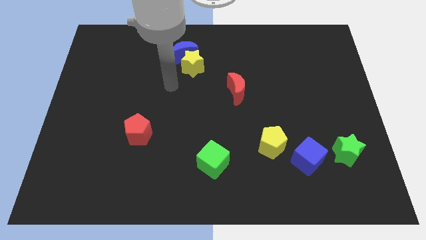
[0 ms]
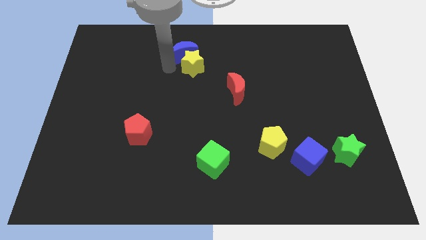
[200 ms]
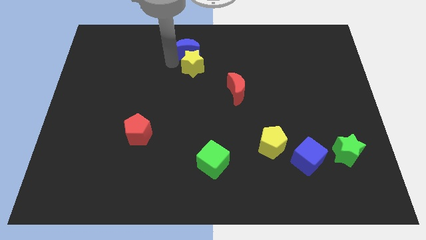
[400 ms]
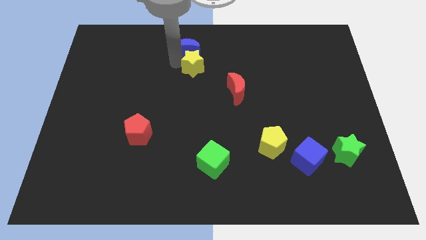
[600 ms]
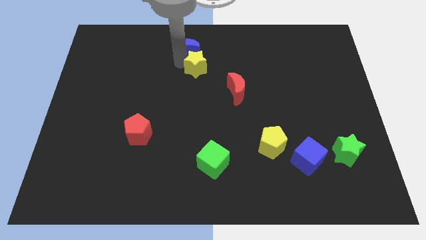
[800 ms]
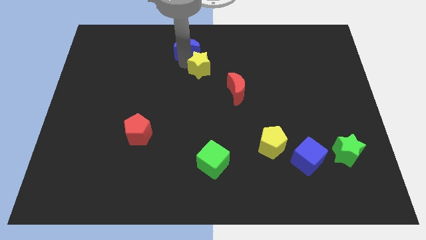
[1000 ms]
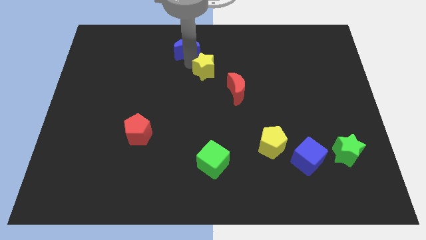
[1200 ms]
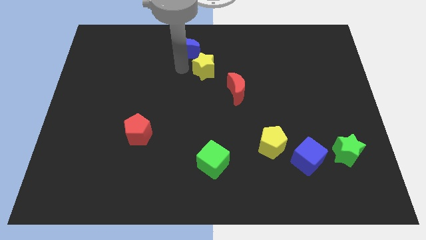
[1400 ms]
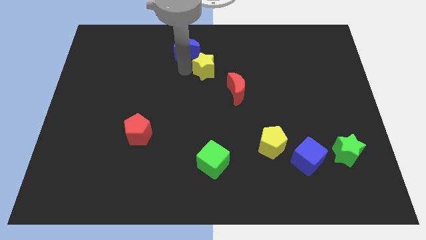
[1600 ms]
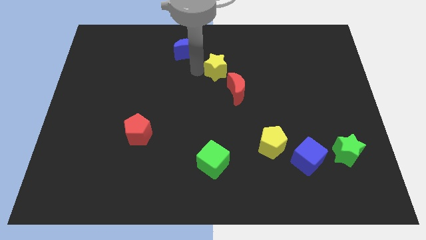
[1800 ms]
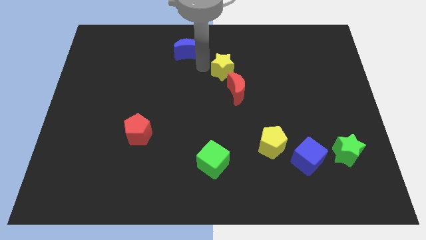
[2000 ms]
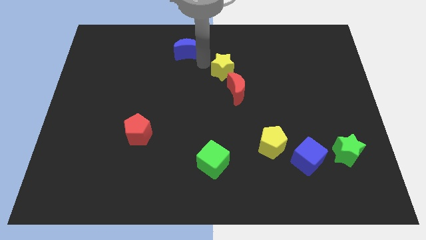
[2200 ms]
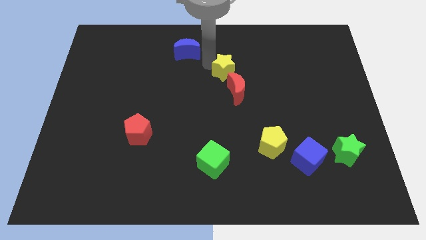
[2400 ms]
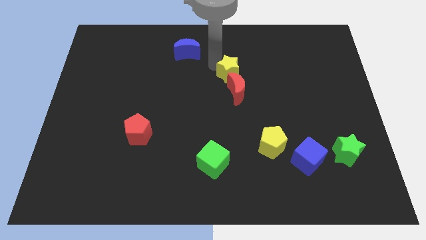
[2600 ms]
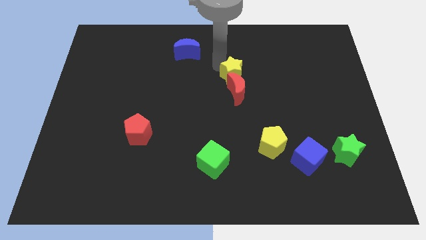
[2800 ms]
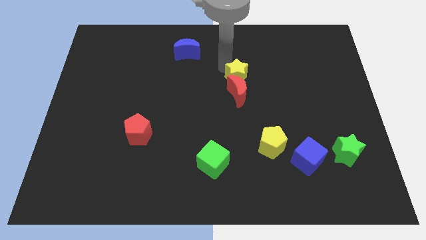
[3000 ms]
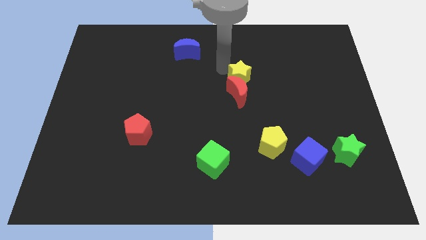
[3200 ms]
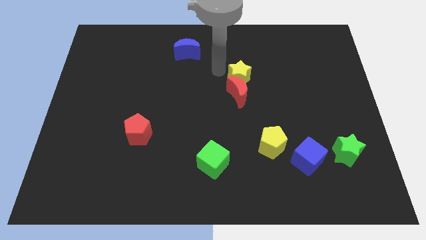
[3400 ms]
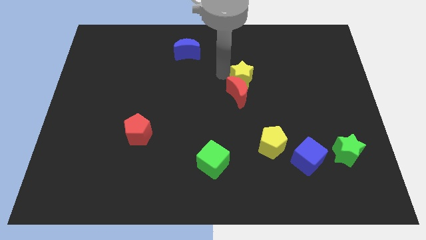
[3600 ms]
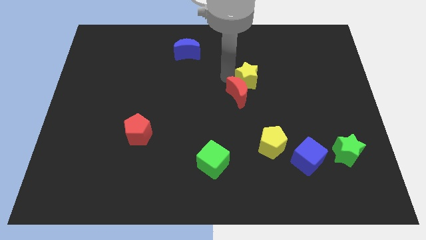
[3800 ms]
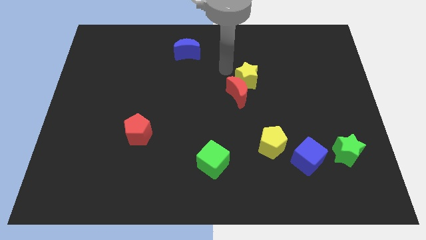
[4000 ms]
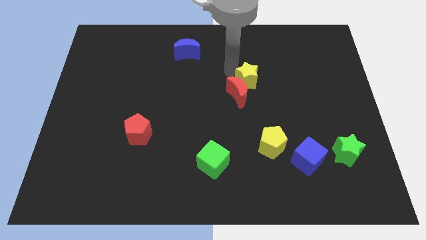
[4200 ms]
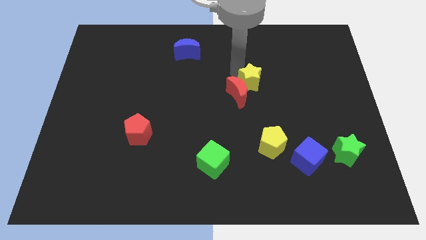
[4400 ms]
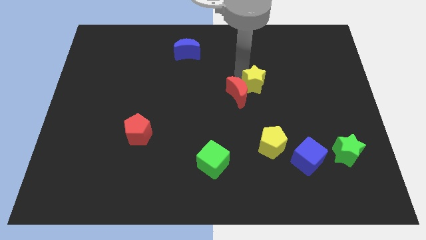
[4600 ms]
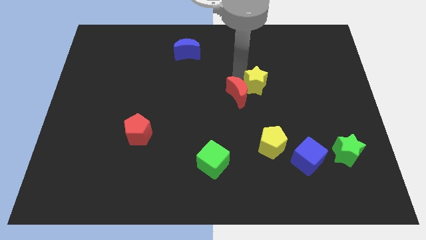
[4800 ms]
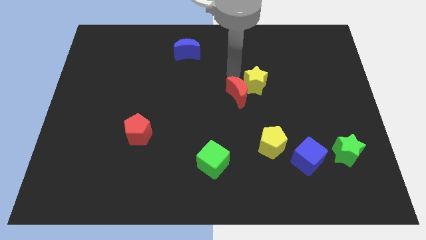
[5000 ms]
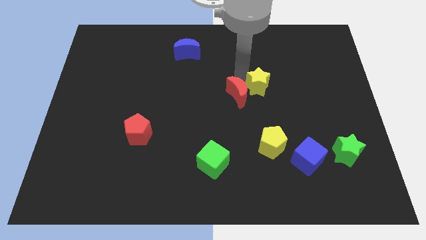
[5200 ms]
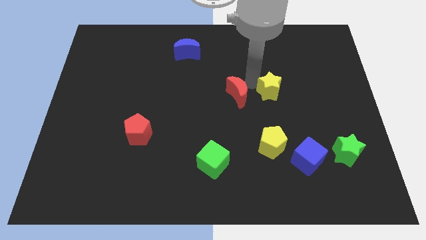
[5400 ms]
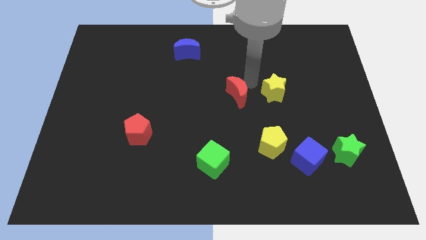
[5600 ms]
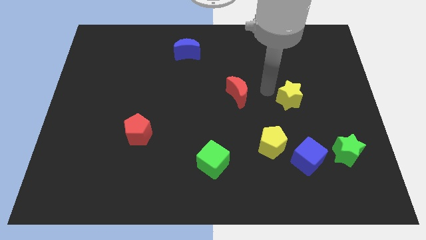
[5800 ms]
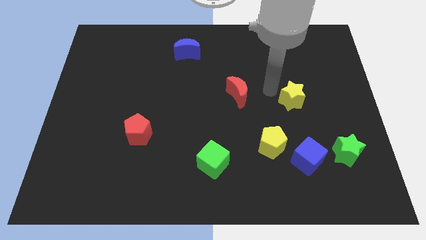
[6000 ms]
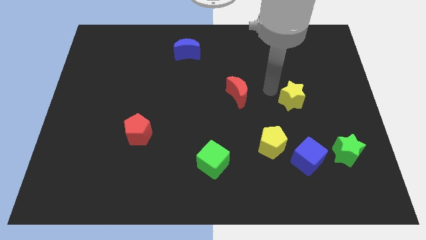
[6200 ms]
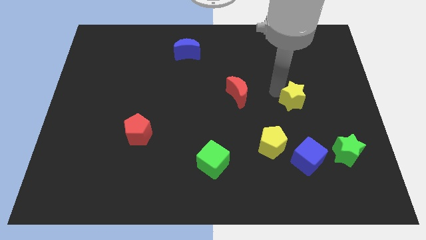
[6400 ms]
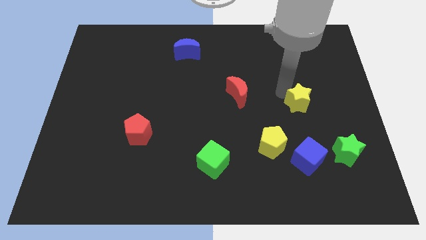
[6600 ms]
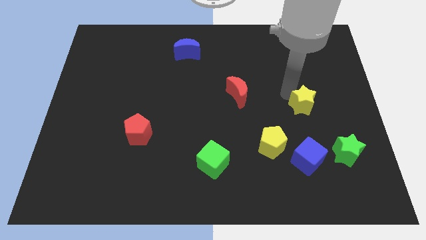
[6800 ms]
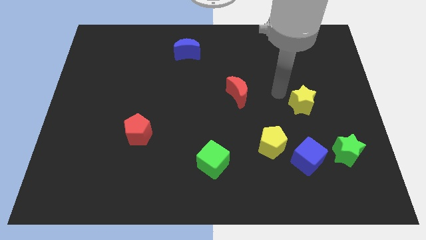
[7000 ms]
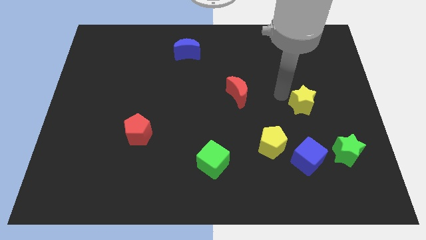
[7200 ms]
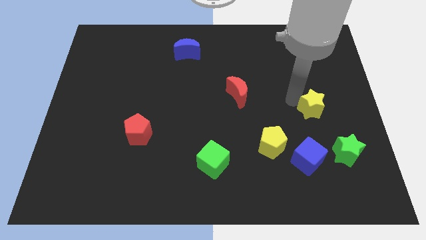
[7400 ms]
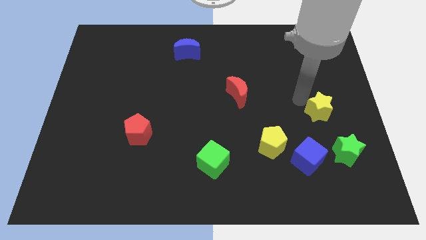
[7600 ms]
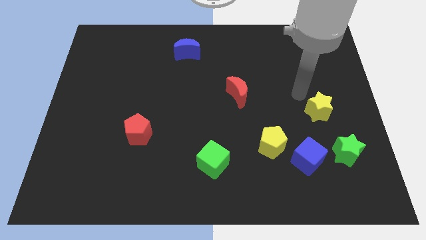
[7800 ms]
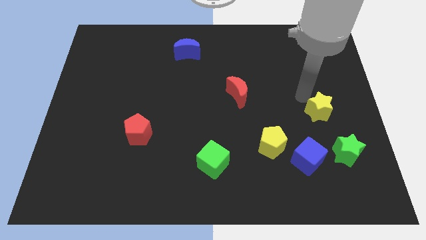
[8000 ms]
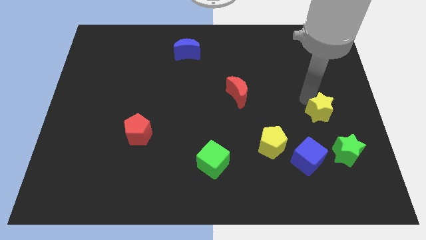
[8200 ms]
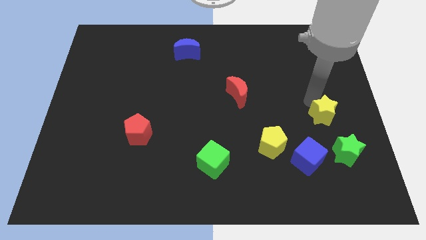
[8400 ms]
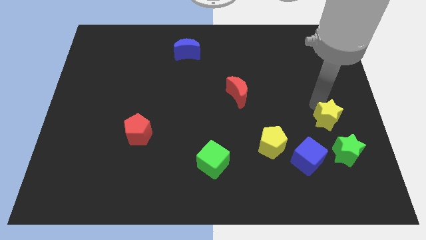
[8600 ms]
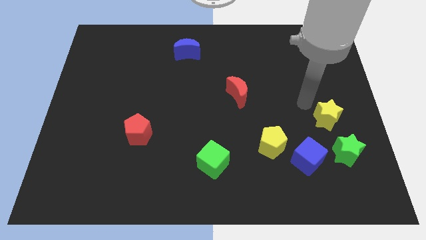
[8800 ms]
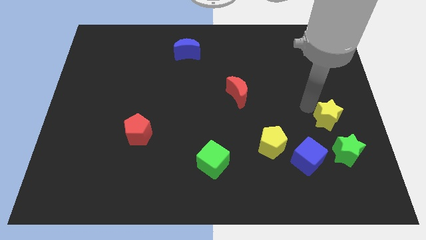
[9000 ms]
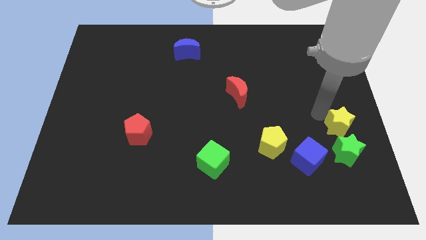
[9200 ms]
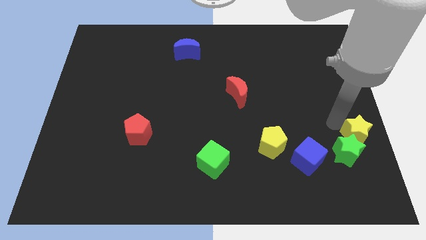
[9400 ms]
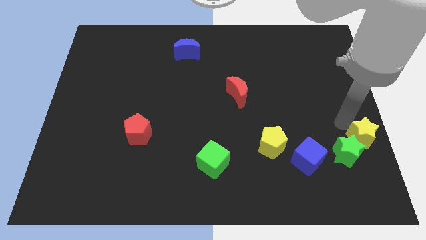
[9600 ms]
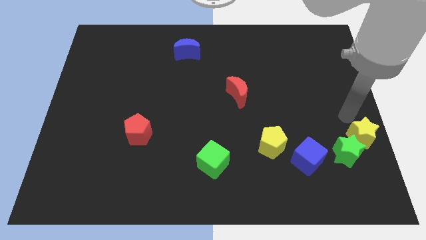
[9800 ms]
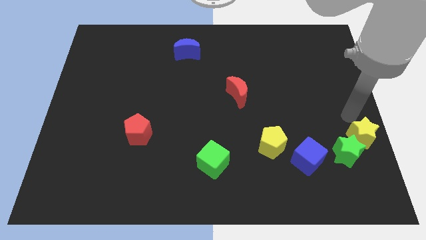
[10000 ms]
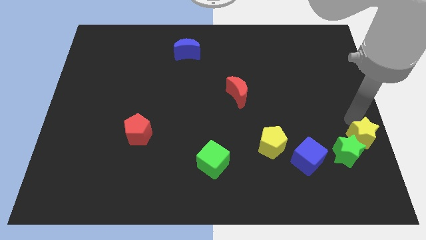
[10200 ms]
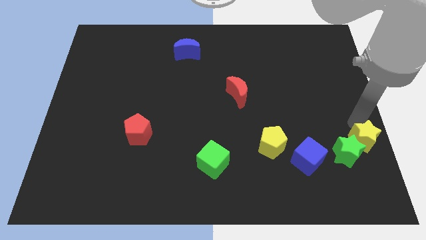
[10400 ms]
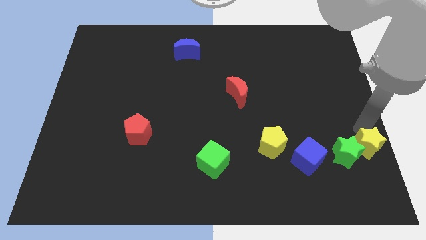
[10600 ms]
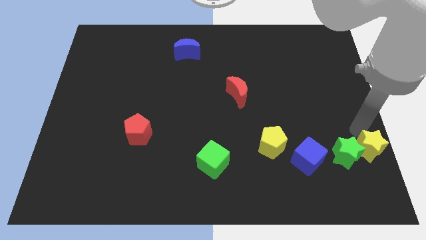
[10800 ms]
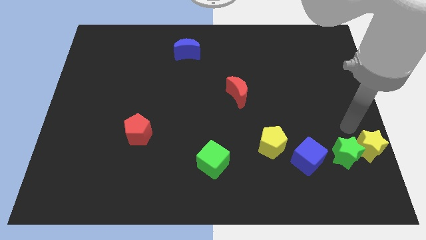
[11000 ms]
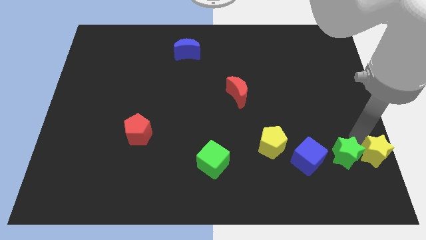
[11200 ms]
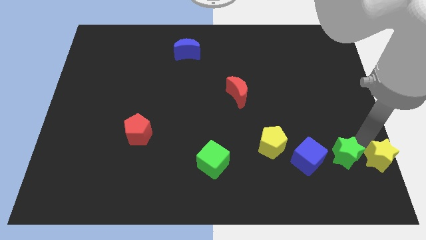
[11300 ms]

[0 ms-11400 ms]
put the yellow star to the bottom right of the board

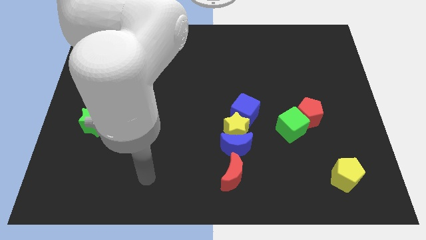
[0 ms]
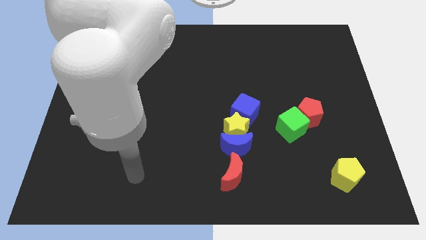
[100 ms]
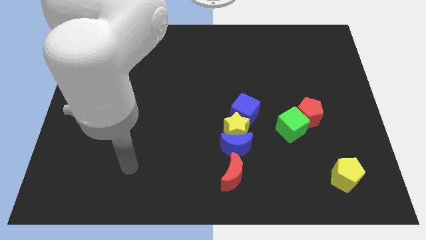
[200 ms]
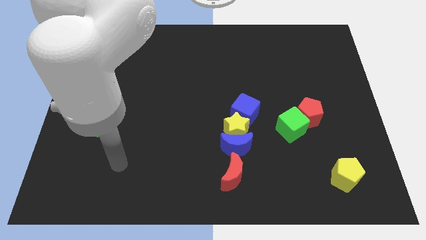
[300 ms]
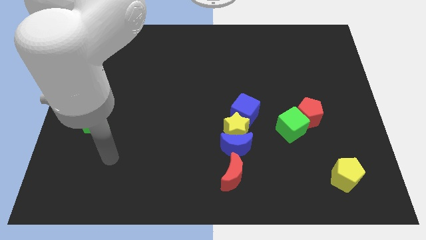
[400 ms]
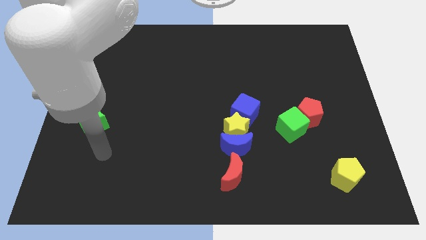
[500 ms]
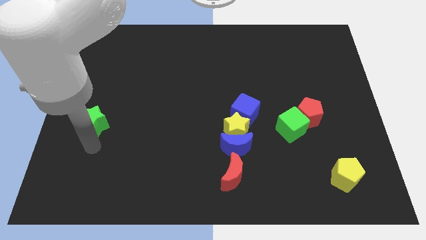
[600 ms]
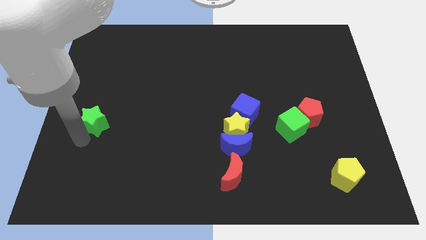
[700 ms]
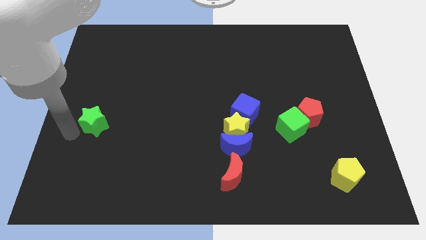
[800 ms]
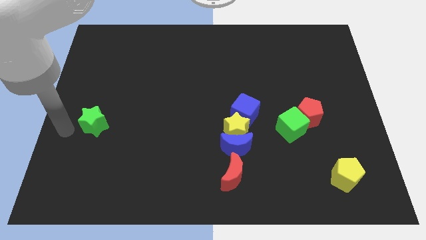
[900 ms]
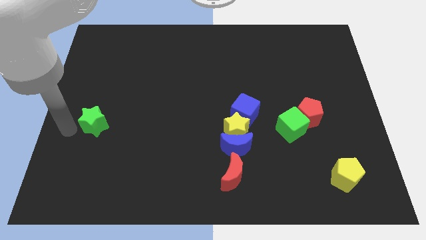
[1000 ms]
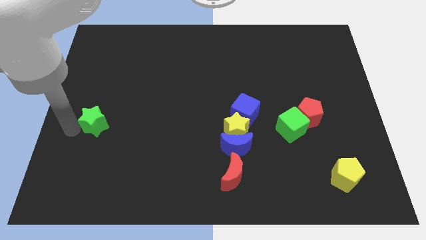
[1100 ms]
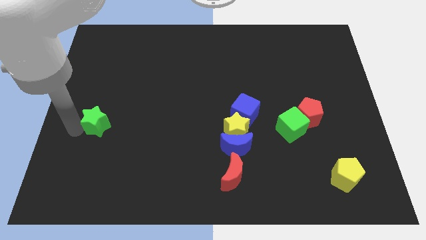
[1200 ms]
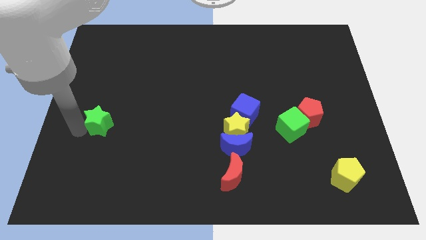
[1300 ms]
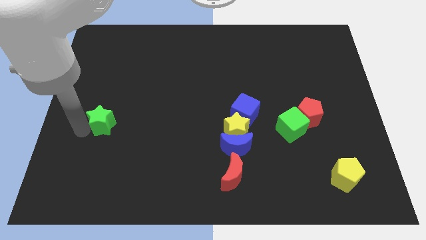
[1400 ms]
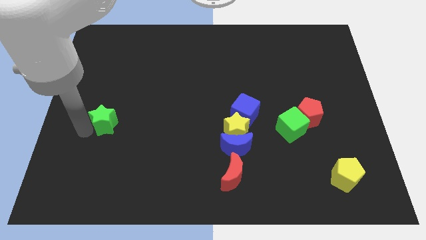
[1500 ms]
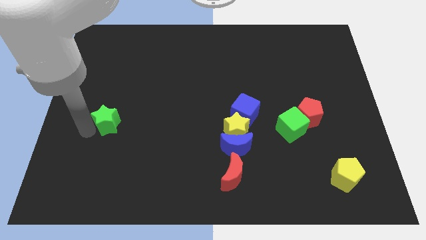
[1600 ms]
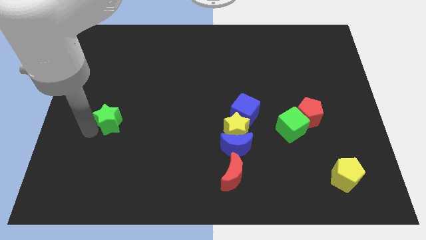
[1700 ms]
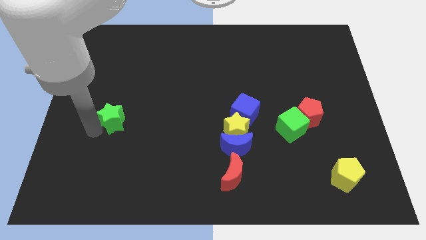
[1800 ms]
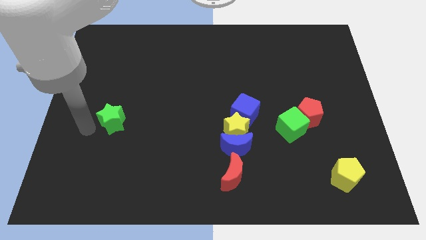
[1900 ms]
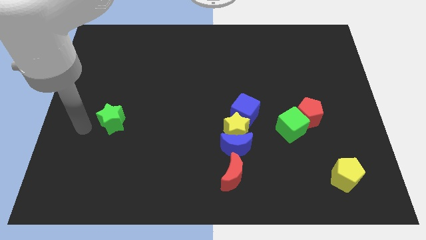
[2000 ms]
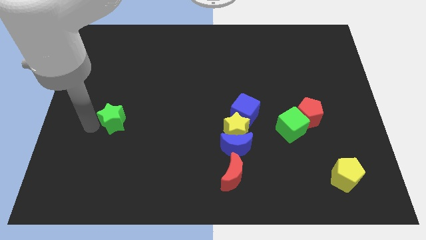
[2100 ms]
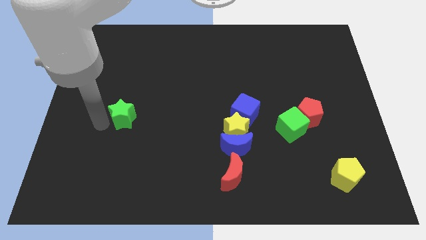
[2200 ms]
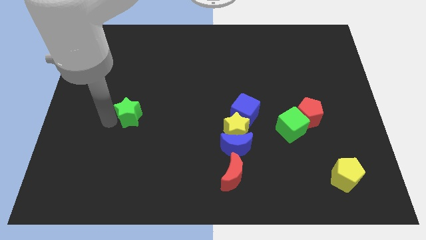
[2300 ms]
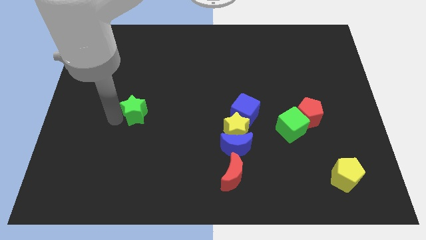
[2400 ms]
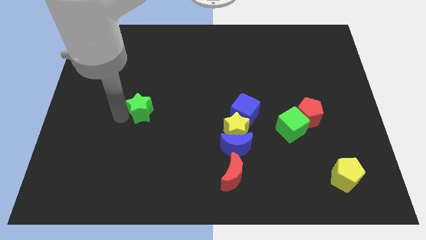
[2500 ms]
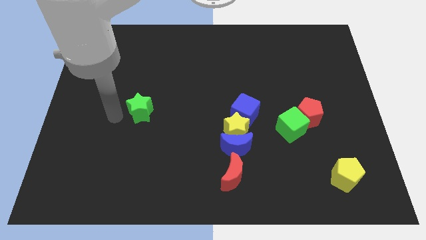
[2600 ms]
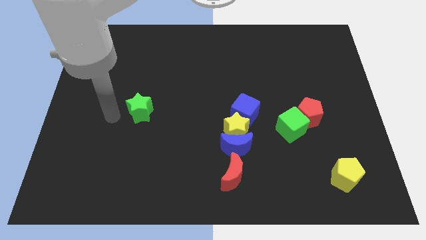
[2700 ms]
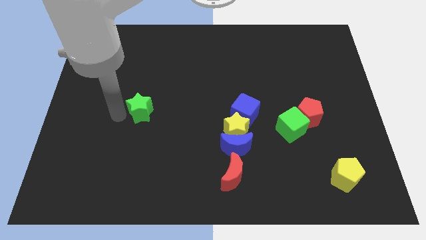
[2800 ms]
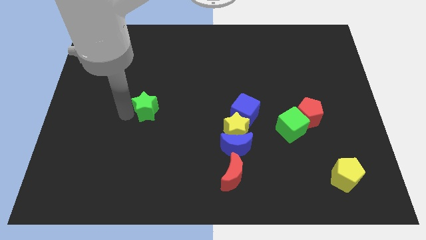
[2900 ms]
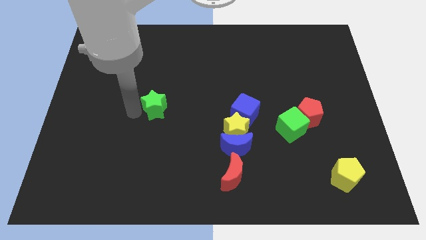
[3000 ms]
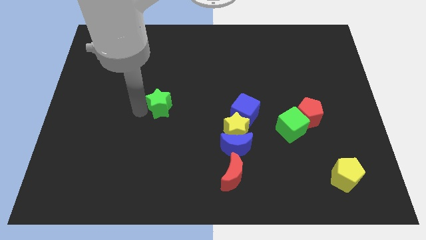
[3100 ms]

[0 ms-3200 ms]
push the green star to the middle of the board
